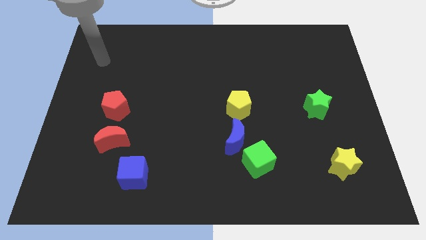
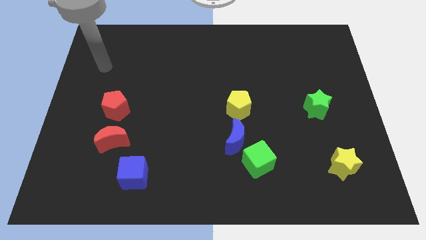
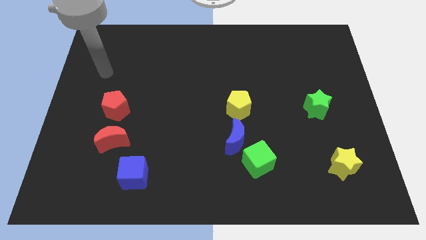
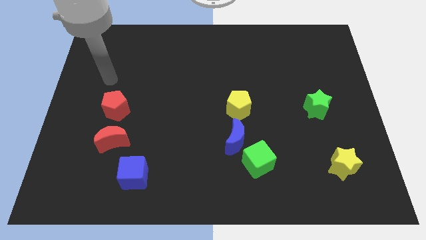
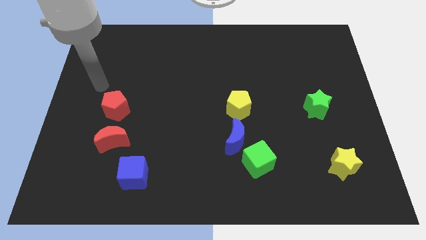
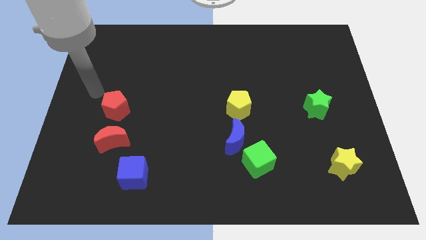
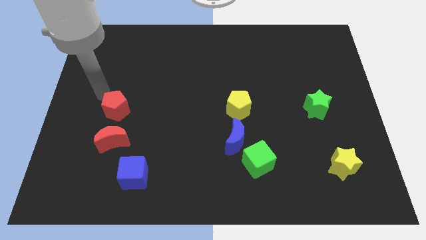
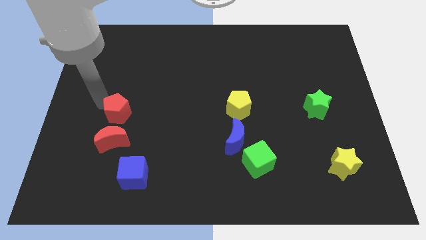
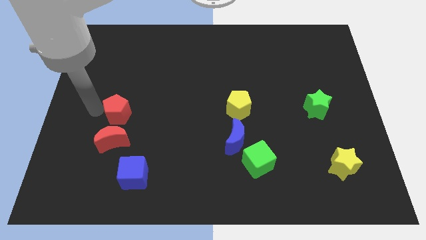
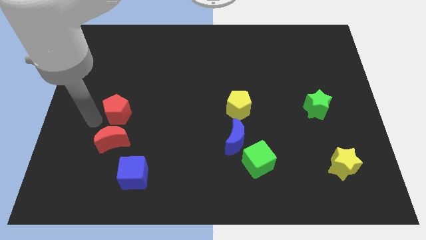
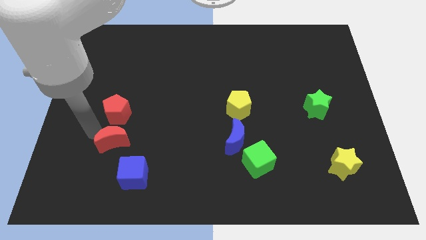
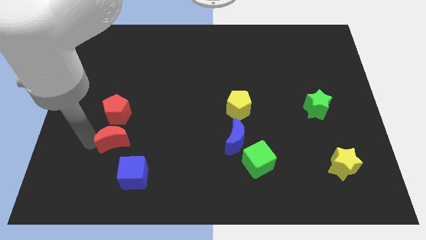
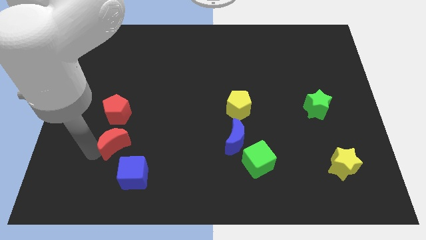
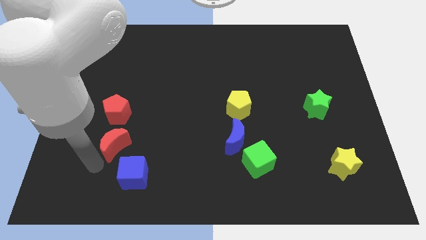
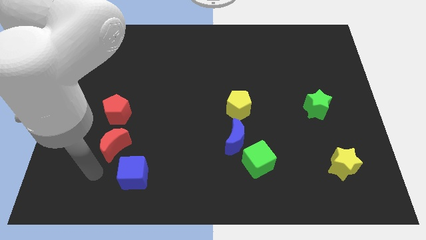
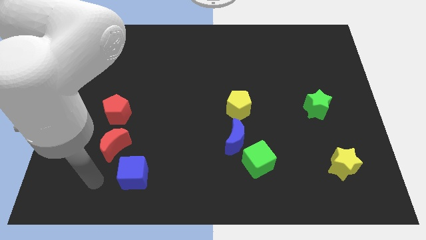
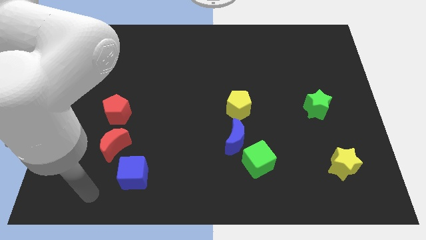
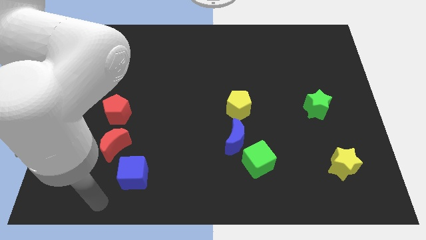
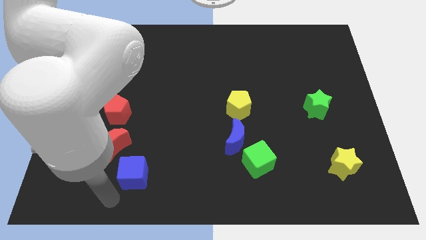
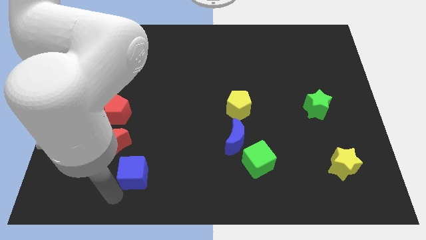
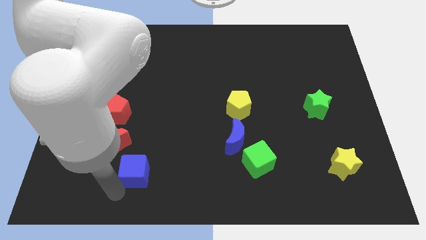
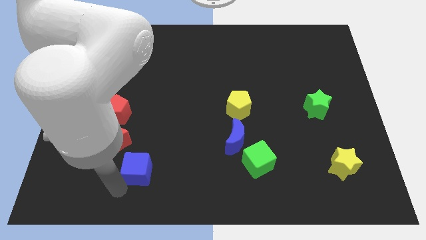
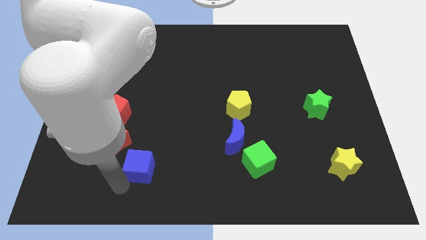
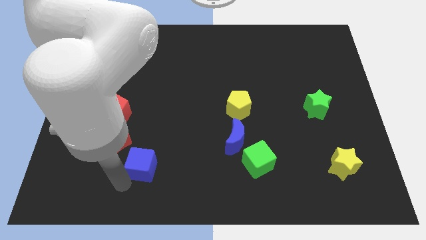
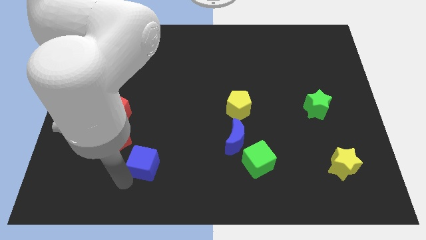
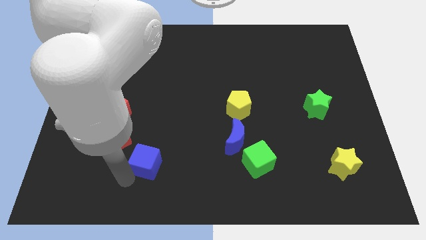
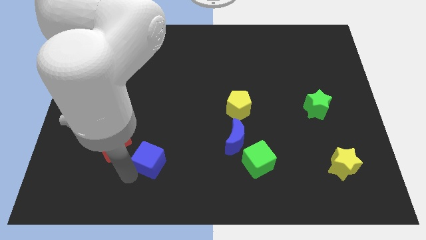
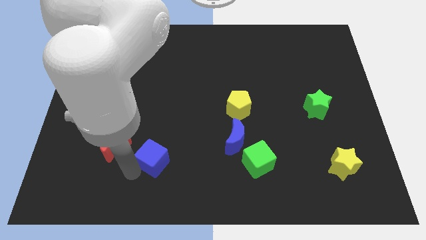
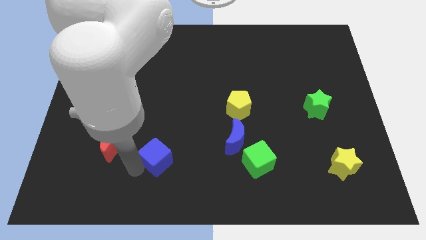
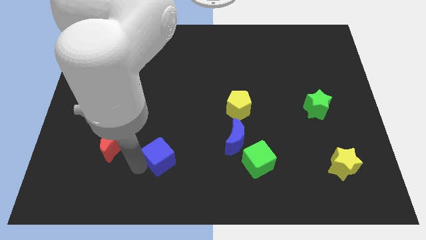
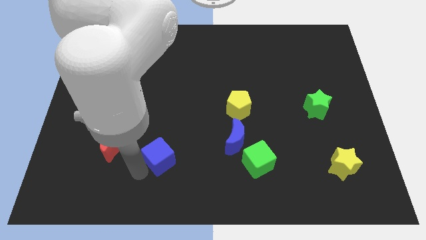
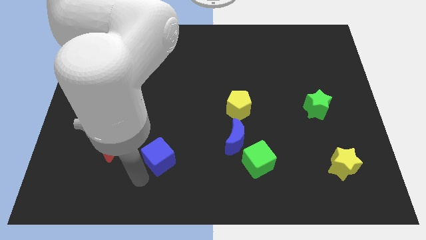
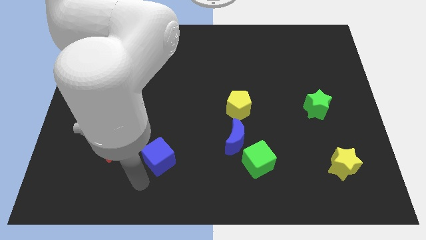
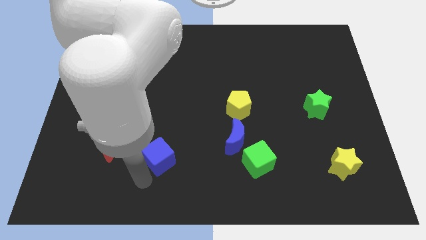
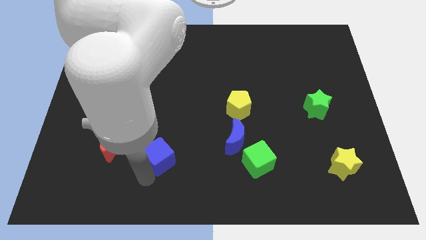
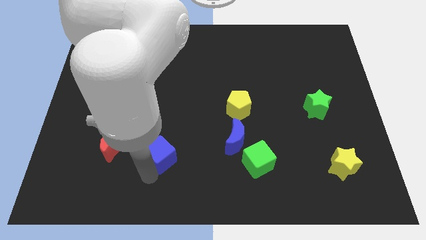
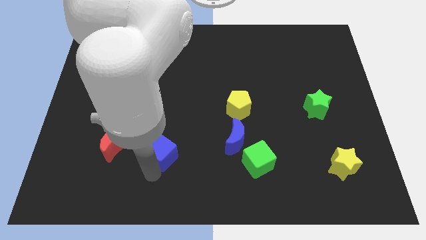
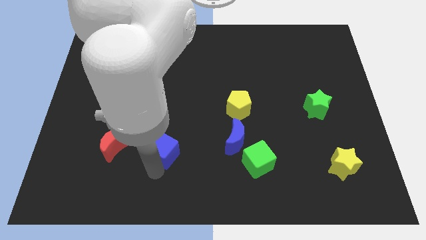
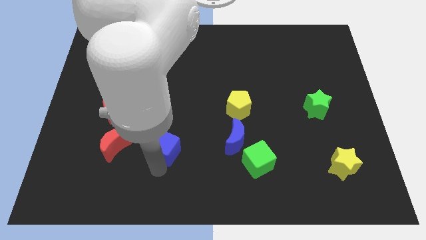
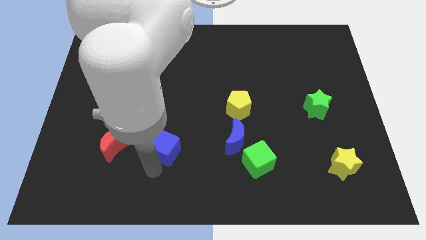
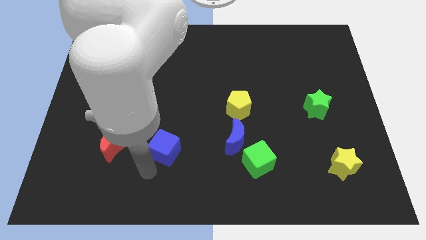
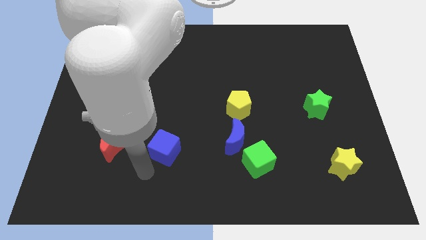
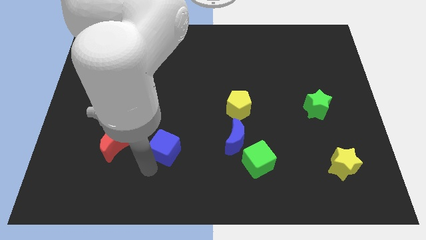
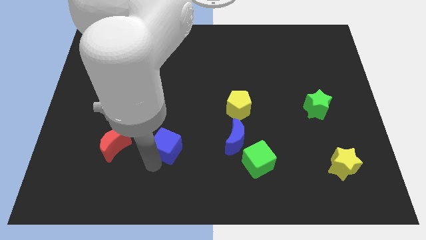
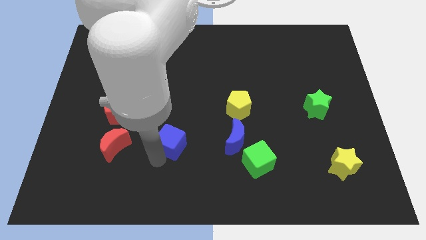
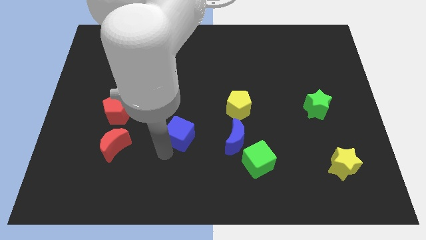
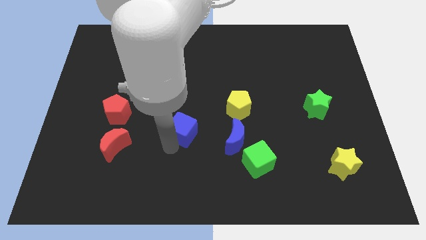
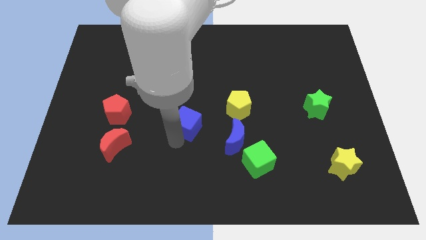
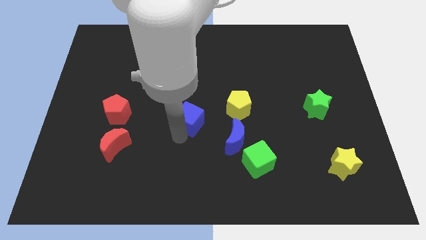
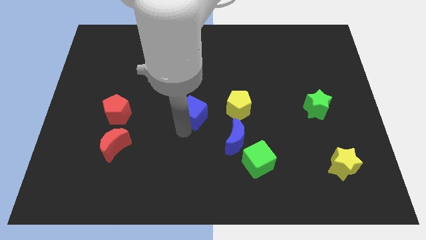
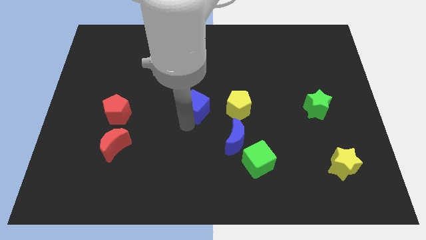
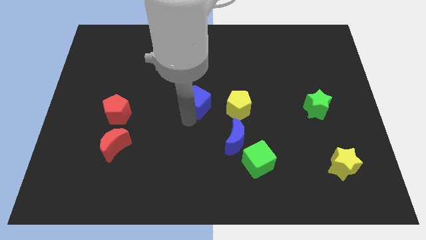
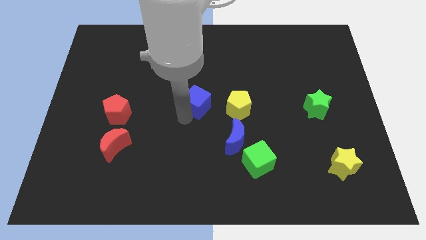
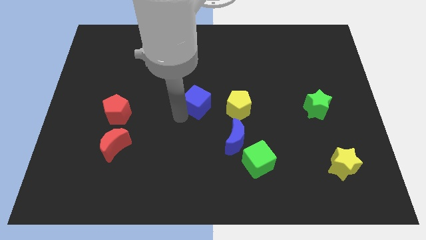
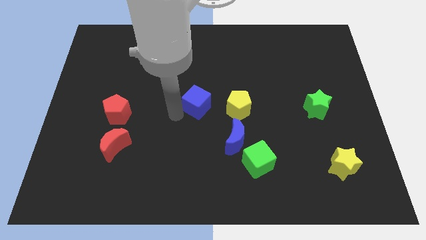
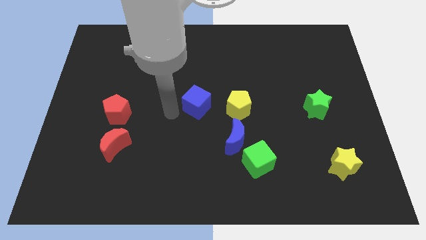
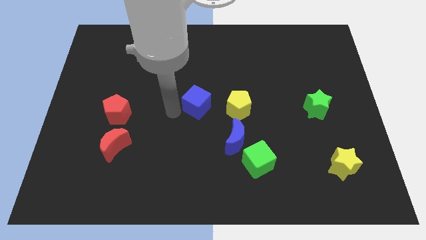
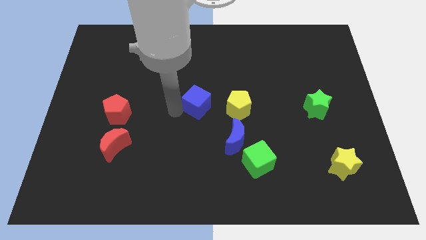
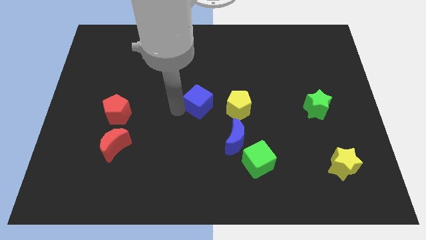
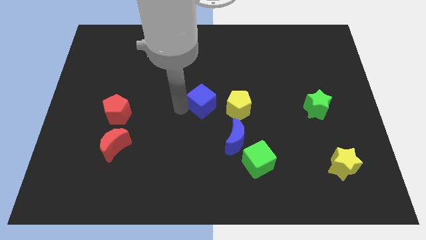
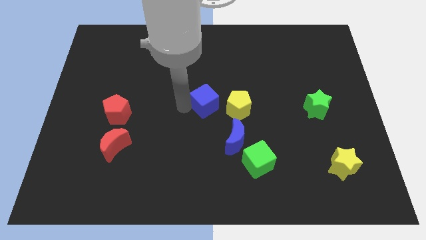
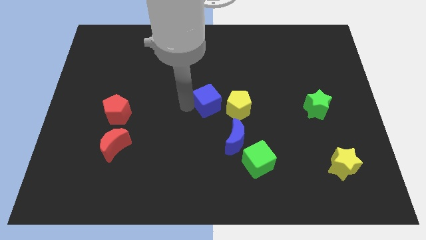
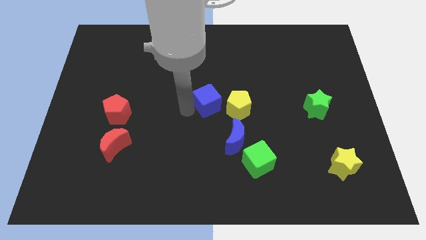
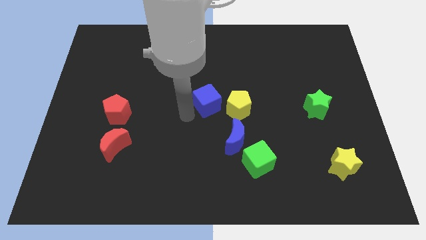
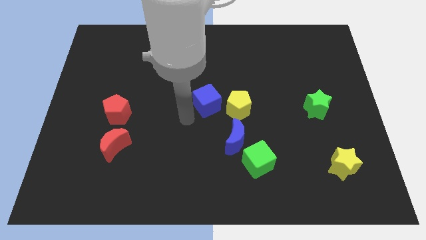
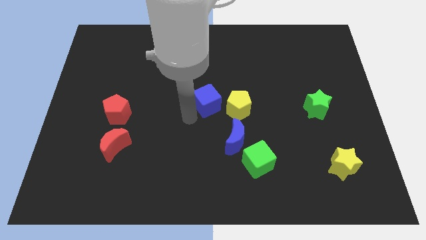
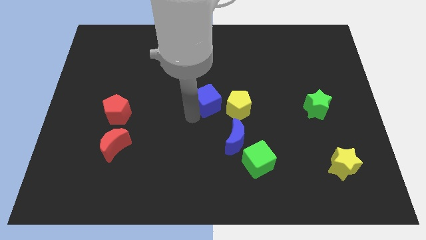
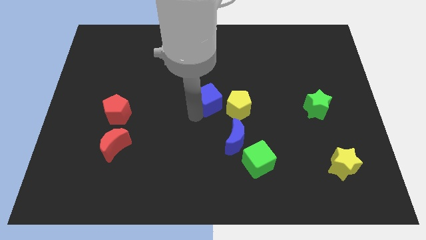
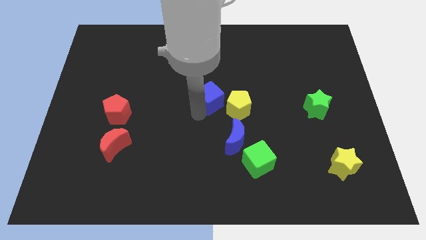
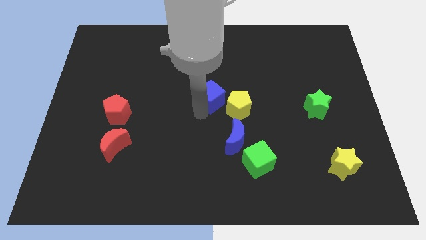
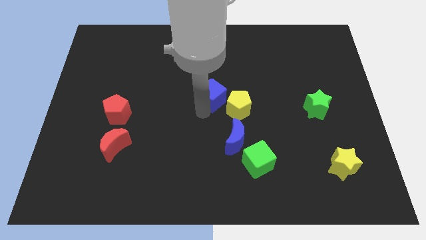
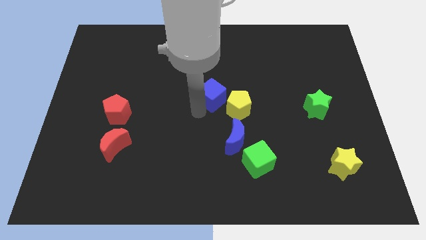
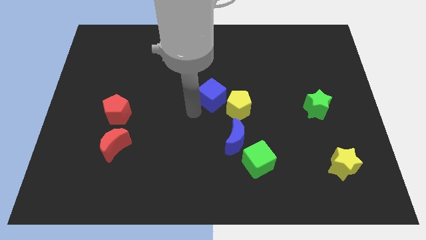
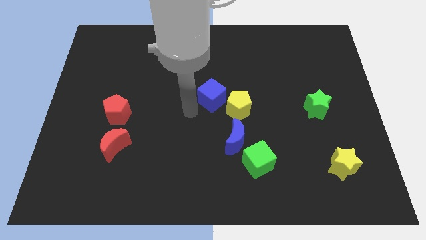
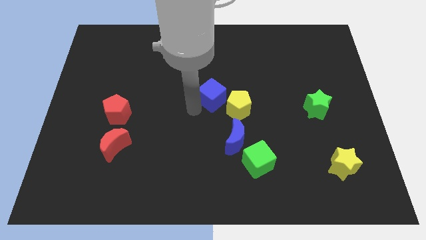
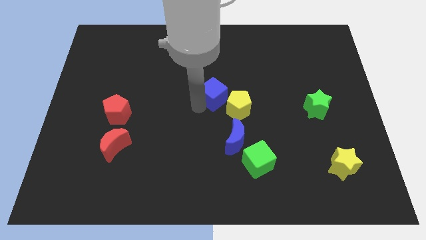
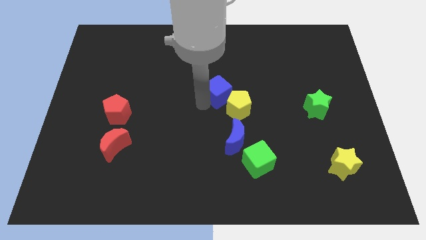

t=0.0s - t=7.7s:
put the blue cube to the top of the yellow pentagon
